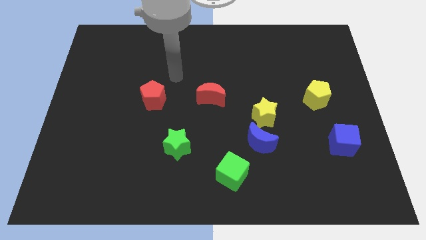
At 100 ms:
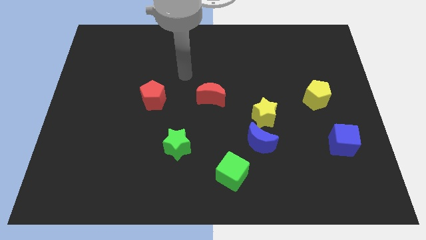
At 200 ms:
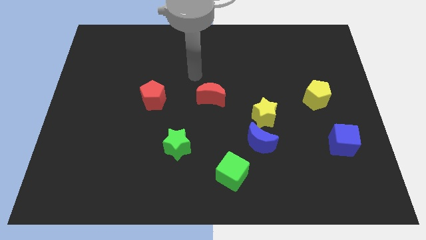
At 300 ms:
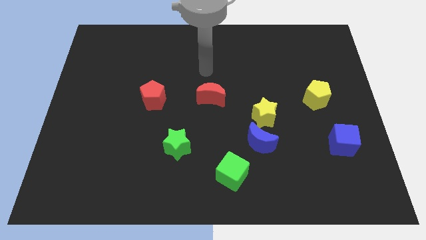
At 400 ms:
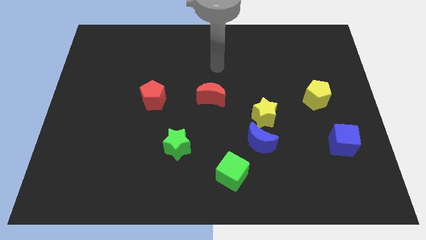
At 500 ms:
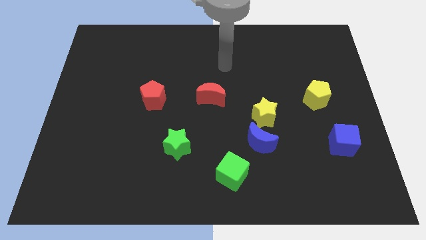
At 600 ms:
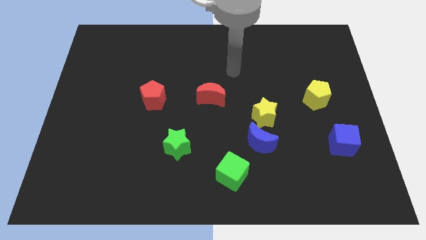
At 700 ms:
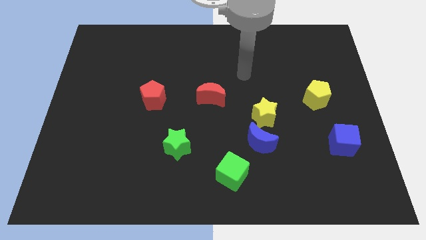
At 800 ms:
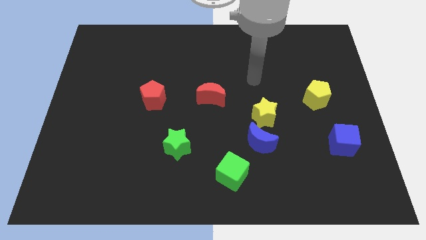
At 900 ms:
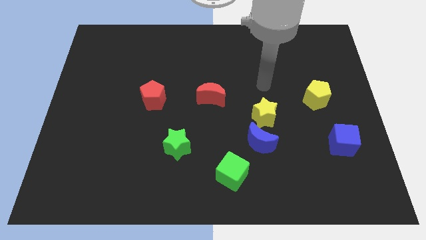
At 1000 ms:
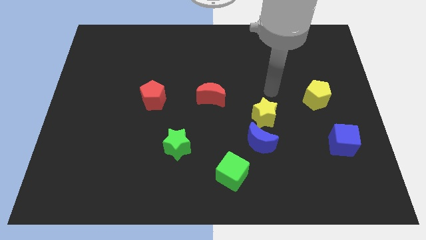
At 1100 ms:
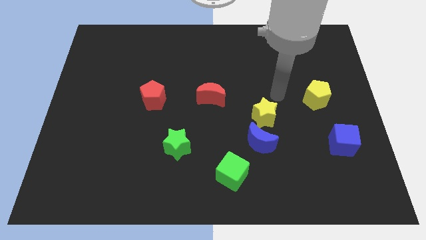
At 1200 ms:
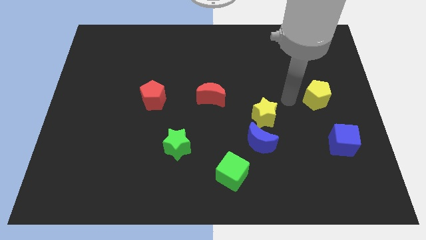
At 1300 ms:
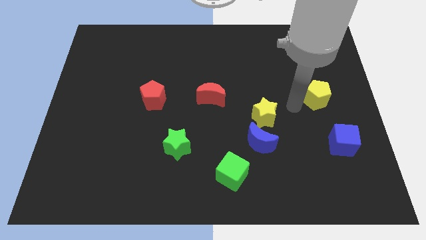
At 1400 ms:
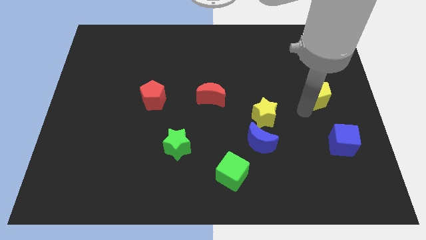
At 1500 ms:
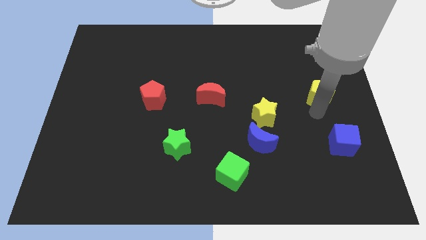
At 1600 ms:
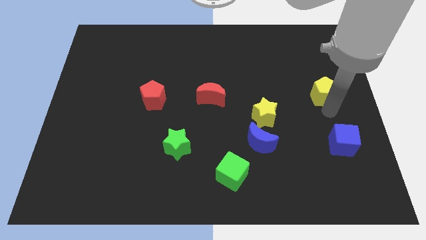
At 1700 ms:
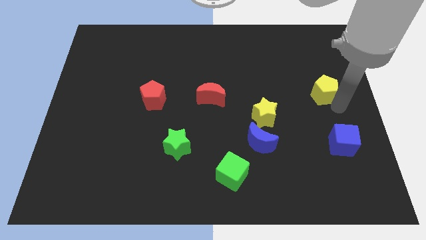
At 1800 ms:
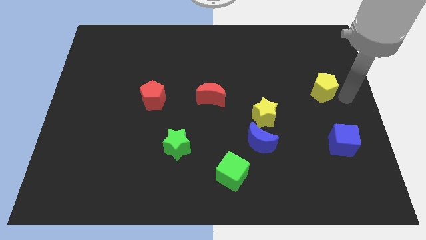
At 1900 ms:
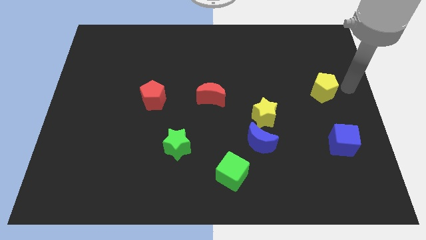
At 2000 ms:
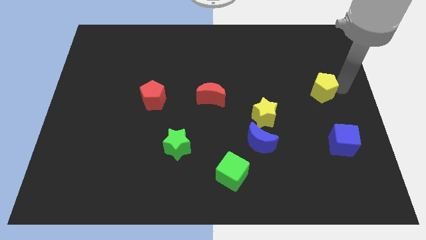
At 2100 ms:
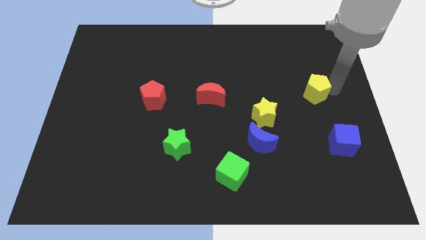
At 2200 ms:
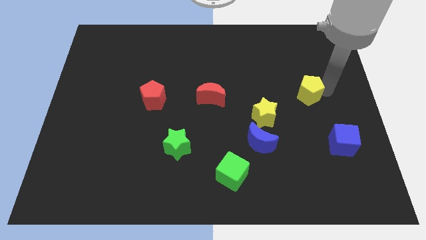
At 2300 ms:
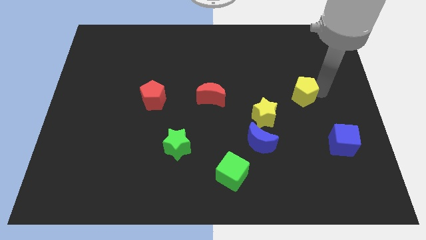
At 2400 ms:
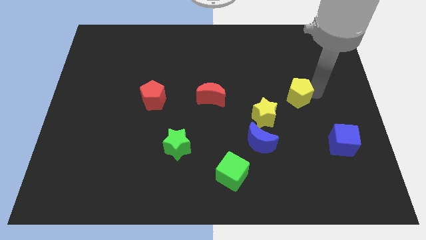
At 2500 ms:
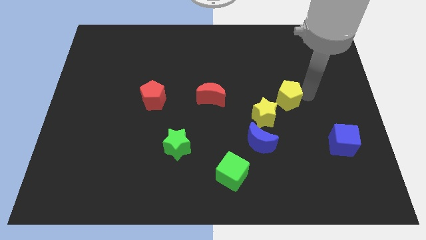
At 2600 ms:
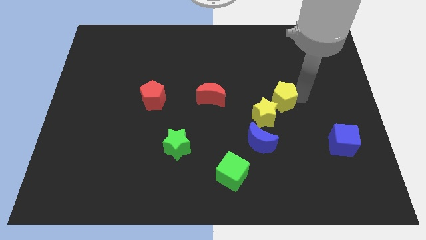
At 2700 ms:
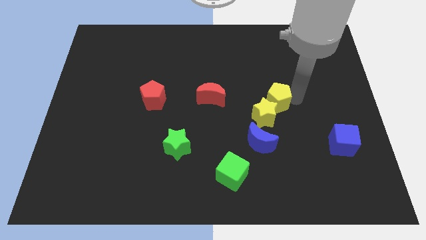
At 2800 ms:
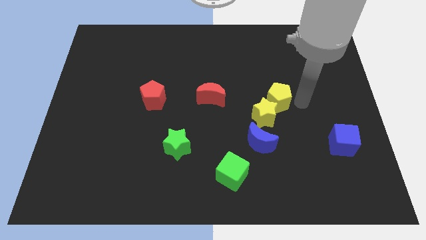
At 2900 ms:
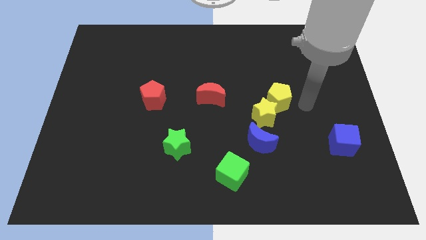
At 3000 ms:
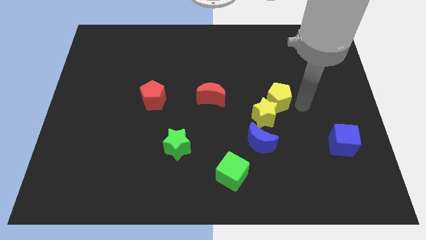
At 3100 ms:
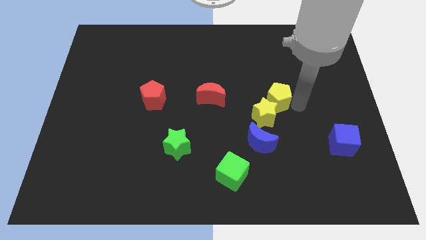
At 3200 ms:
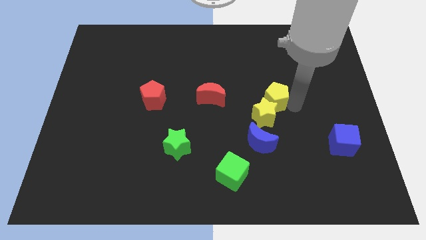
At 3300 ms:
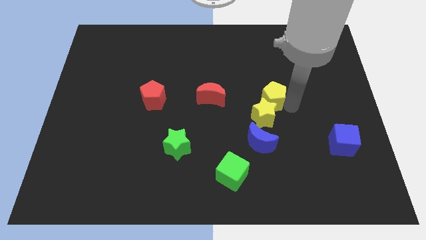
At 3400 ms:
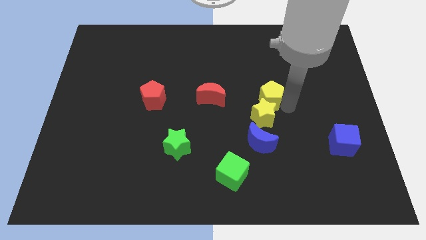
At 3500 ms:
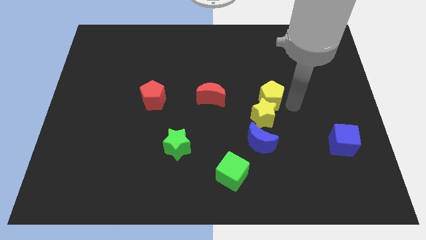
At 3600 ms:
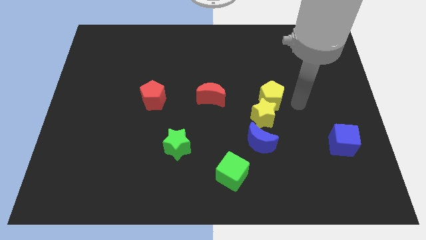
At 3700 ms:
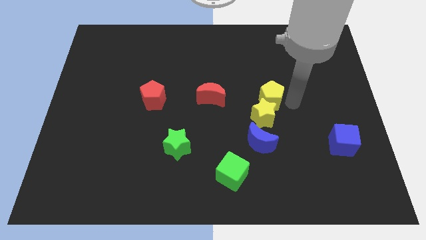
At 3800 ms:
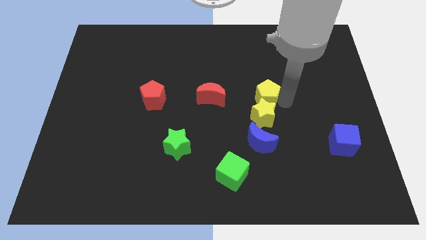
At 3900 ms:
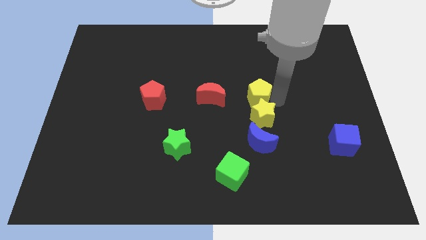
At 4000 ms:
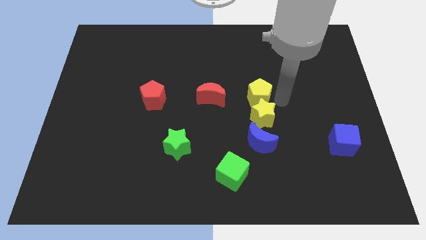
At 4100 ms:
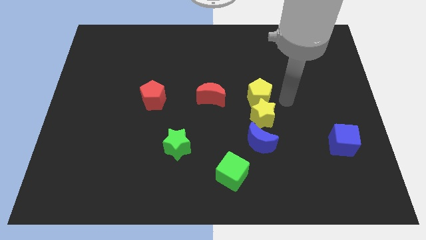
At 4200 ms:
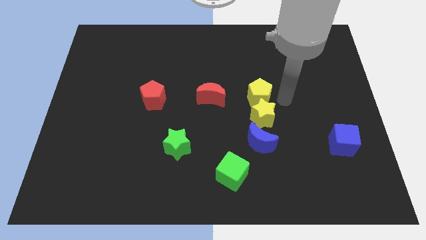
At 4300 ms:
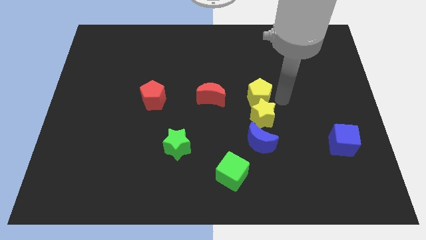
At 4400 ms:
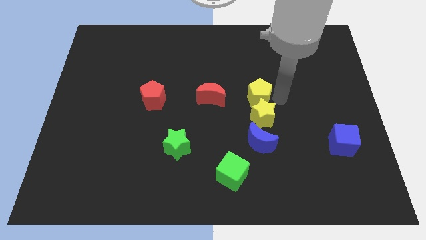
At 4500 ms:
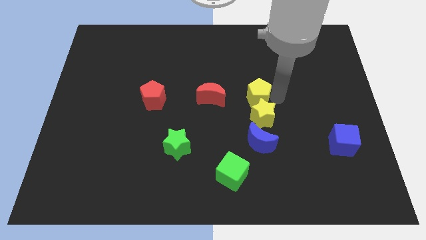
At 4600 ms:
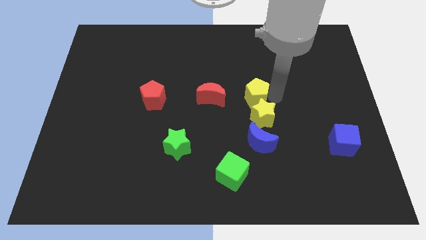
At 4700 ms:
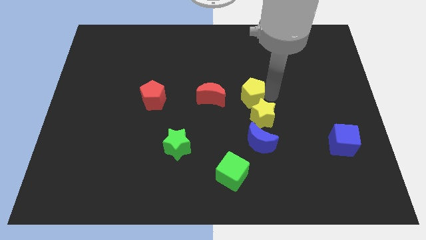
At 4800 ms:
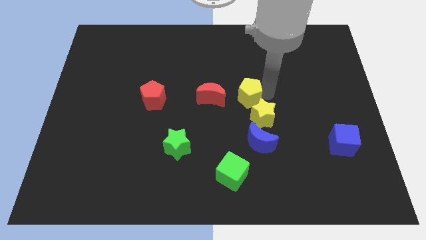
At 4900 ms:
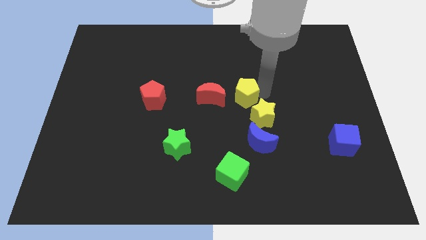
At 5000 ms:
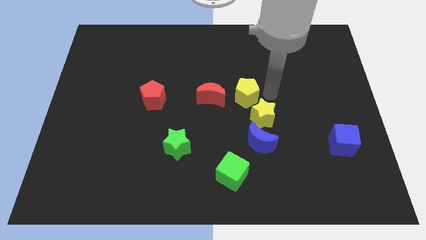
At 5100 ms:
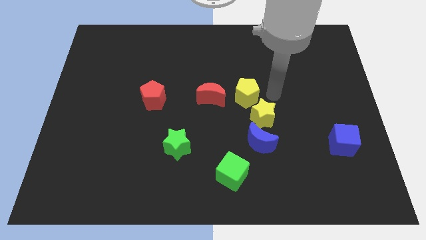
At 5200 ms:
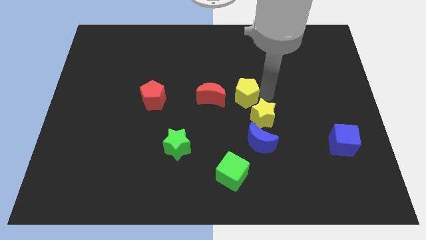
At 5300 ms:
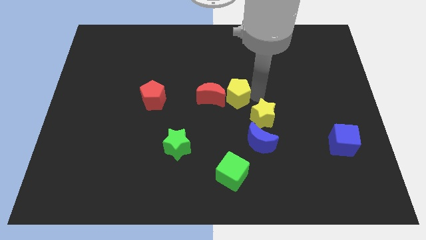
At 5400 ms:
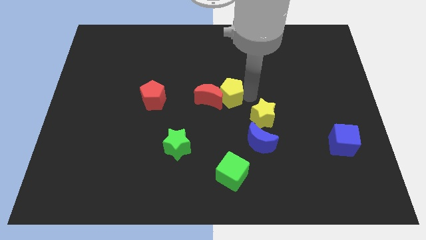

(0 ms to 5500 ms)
push the yellow pentagon to the red moon

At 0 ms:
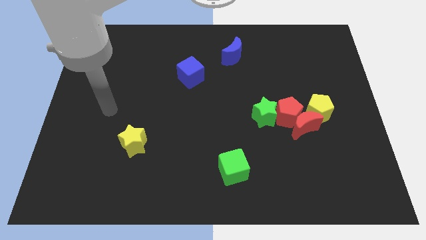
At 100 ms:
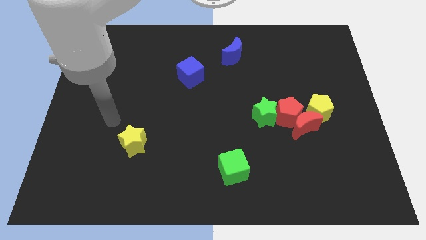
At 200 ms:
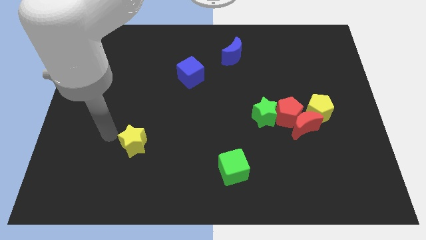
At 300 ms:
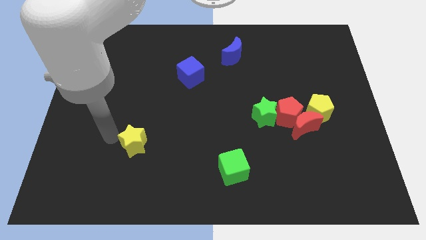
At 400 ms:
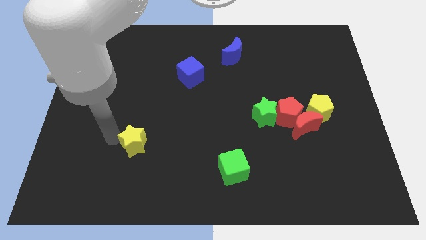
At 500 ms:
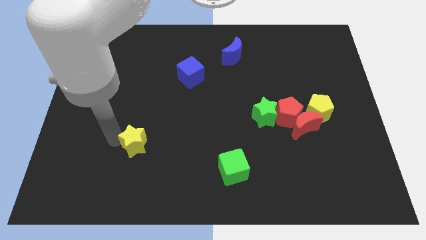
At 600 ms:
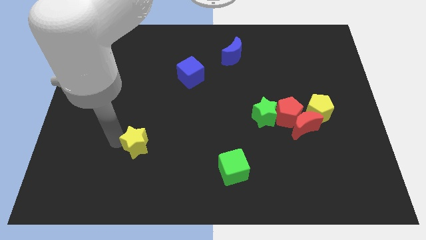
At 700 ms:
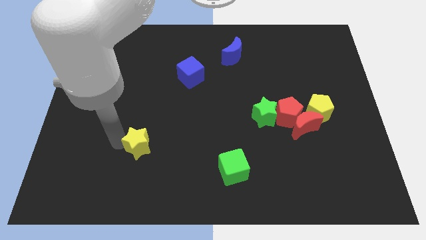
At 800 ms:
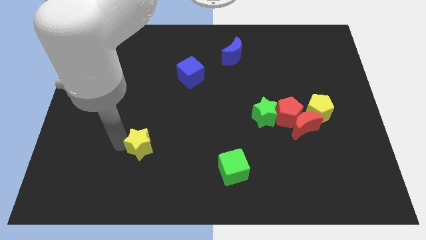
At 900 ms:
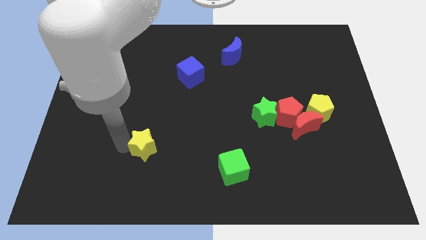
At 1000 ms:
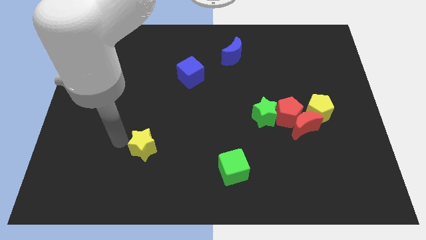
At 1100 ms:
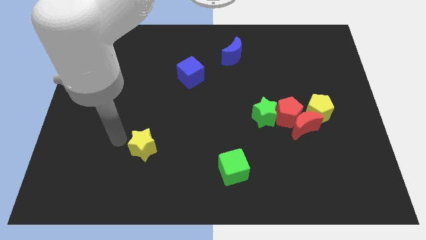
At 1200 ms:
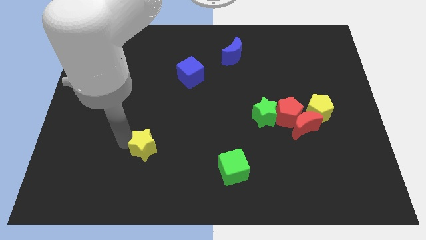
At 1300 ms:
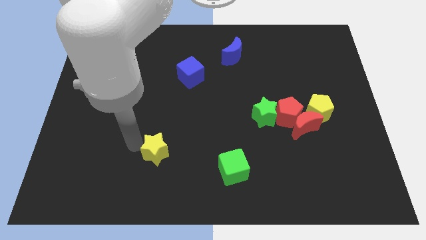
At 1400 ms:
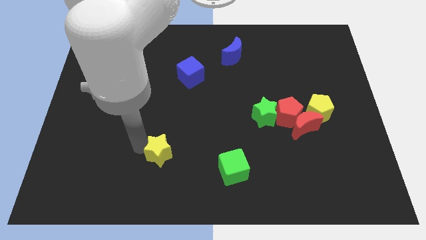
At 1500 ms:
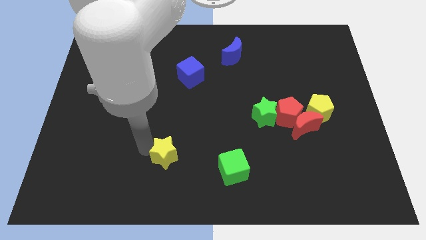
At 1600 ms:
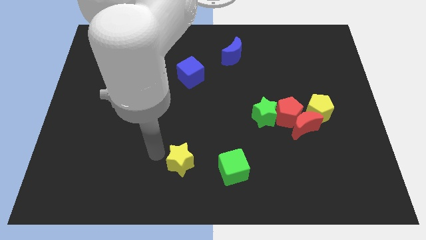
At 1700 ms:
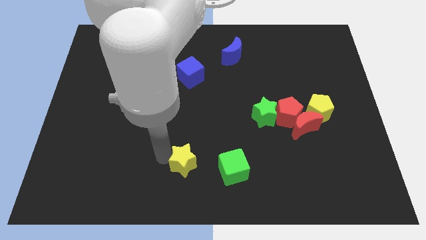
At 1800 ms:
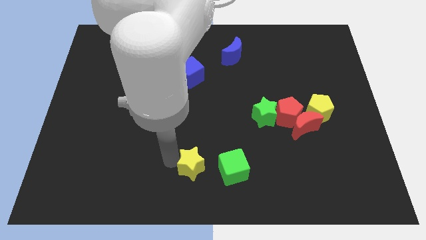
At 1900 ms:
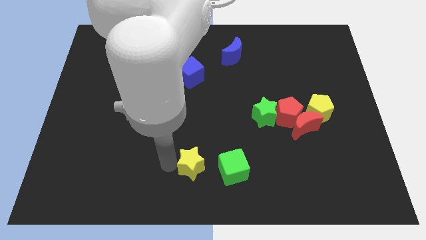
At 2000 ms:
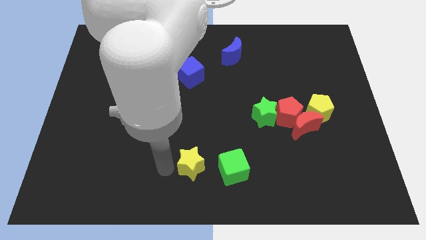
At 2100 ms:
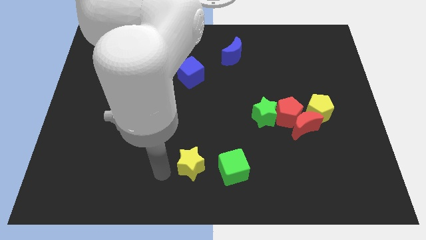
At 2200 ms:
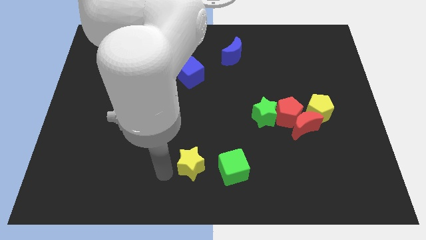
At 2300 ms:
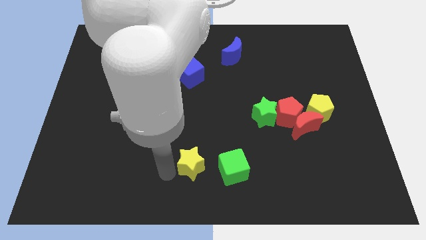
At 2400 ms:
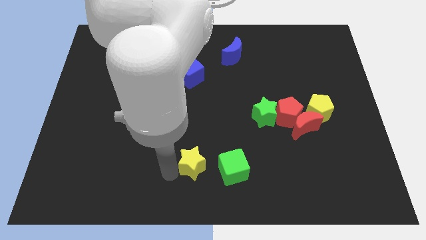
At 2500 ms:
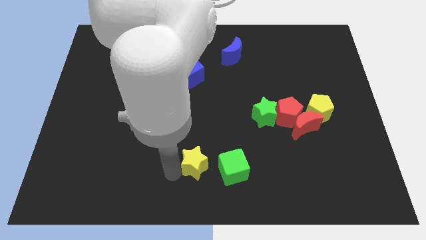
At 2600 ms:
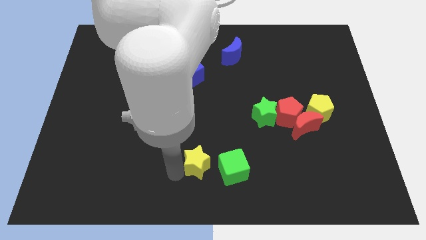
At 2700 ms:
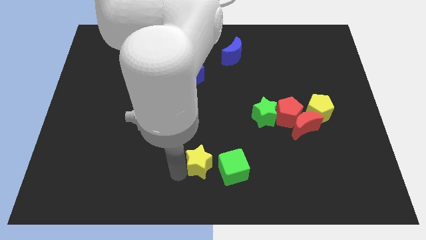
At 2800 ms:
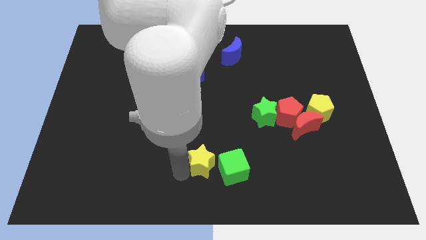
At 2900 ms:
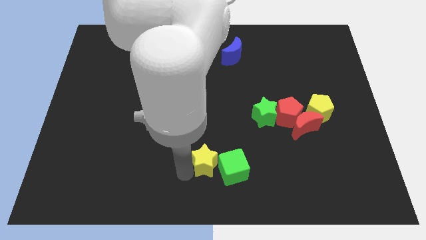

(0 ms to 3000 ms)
put the yellow star close to the green cube
